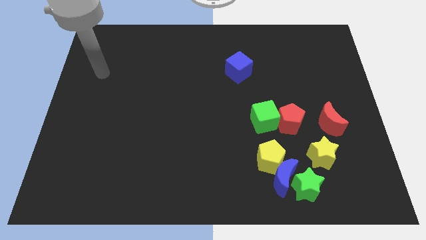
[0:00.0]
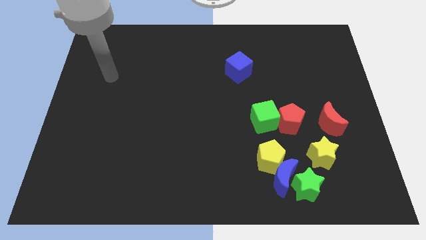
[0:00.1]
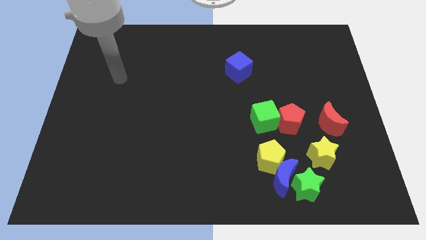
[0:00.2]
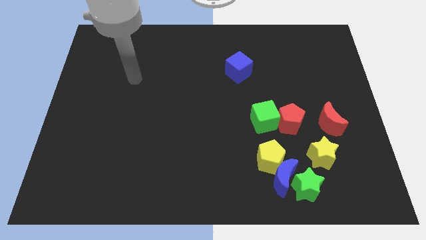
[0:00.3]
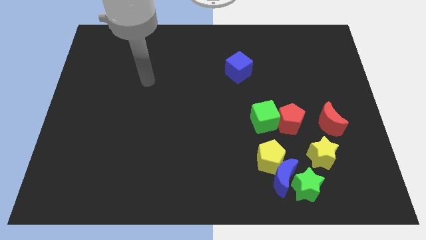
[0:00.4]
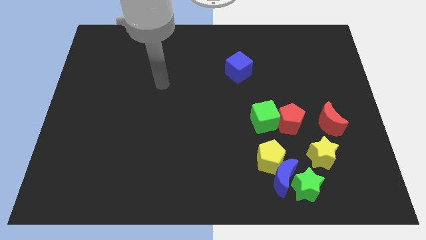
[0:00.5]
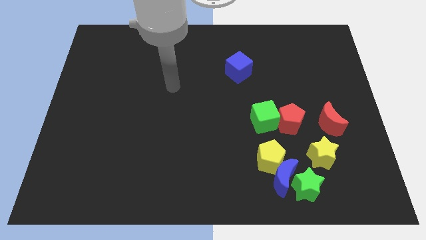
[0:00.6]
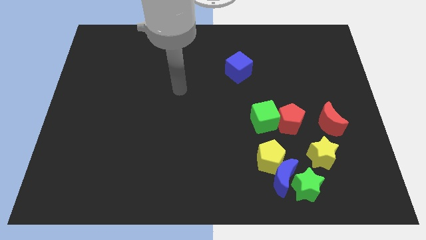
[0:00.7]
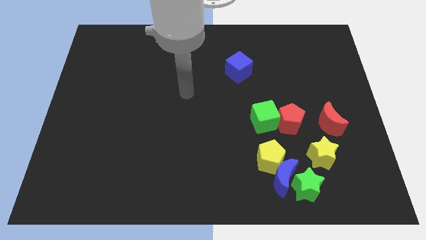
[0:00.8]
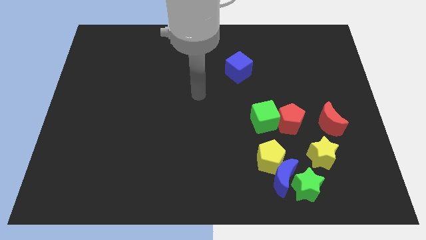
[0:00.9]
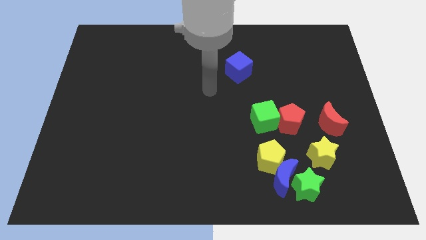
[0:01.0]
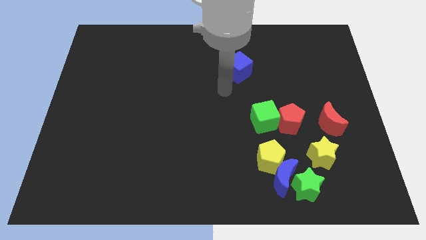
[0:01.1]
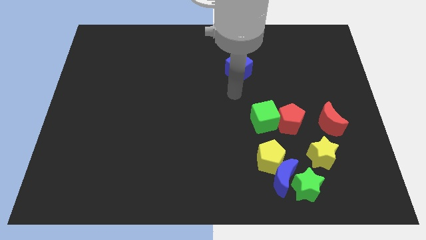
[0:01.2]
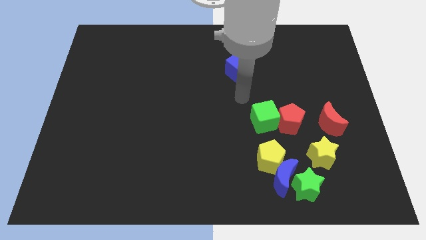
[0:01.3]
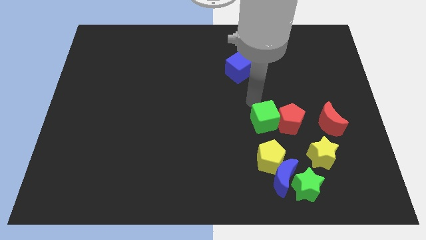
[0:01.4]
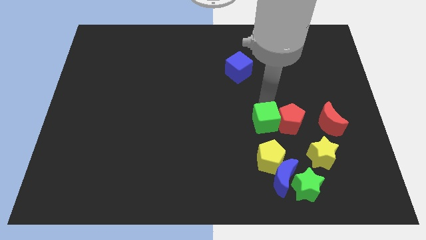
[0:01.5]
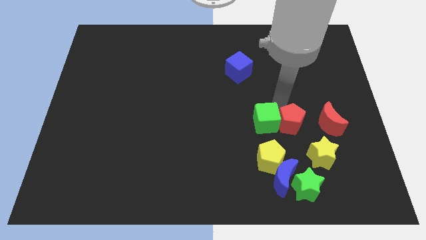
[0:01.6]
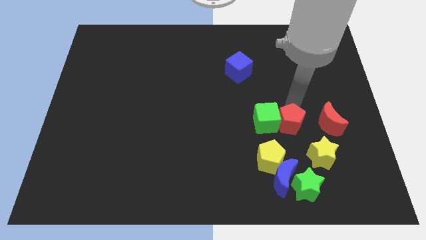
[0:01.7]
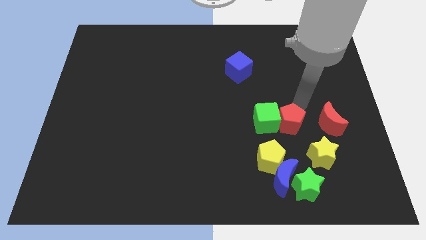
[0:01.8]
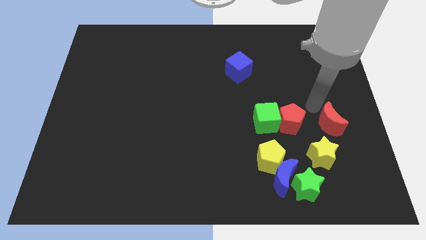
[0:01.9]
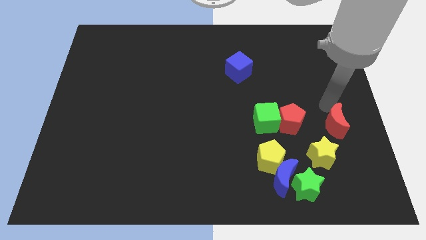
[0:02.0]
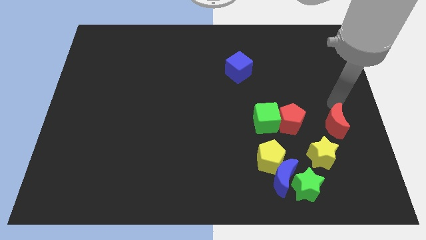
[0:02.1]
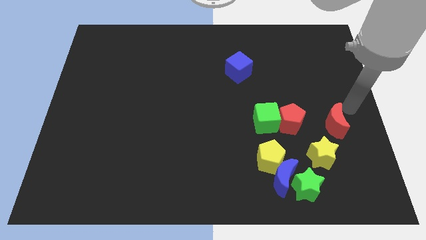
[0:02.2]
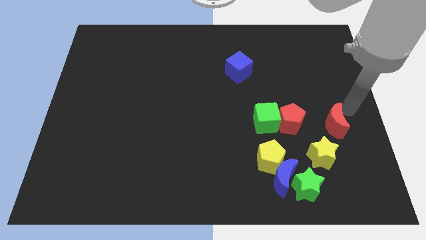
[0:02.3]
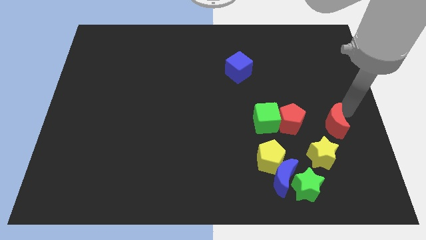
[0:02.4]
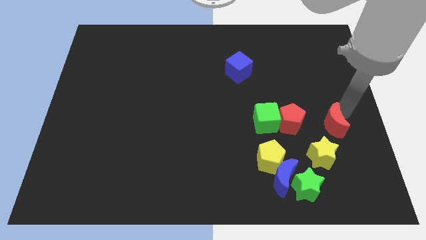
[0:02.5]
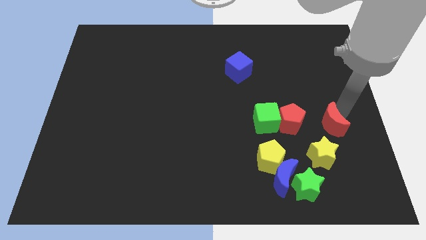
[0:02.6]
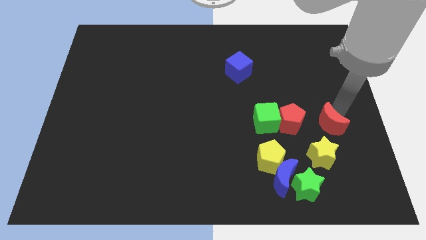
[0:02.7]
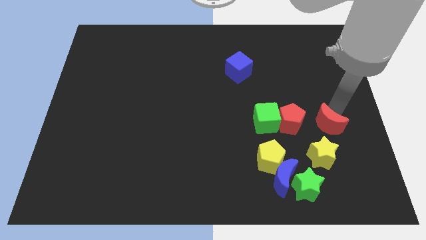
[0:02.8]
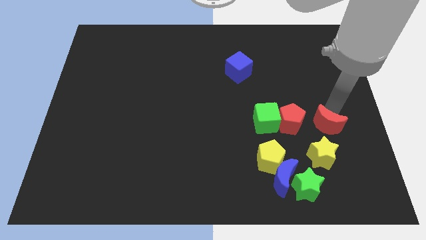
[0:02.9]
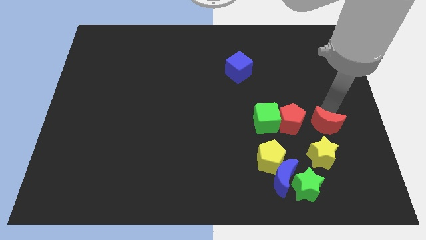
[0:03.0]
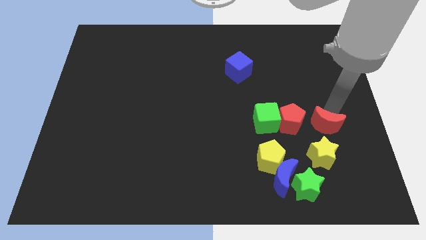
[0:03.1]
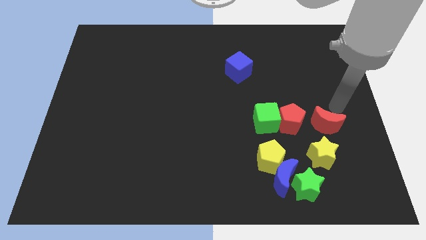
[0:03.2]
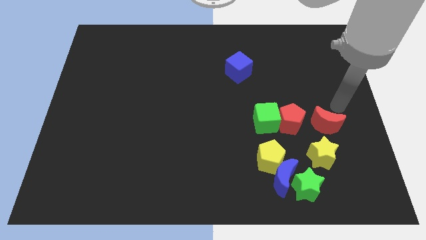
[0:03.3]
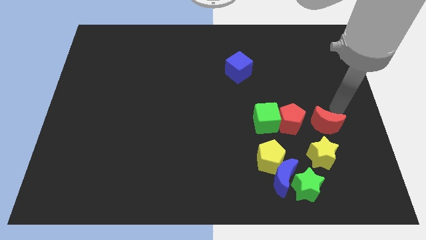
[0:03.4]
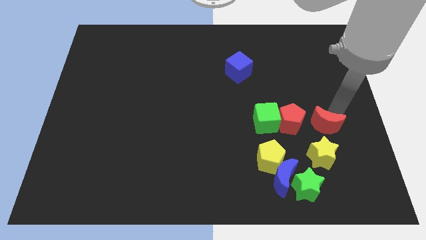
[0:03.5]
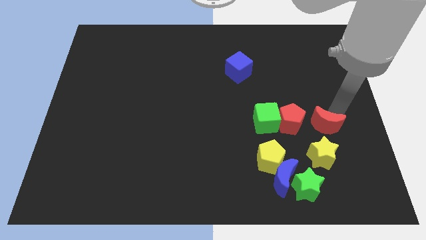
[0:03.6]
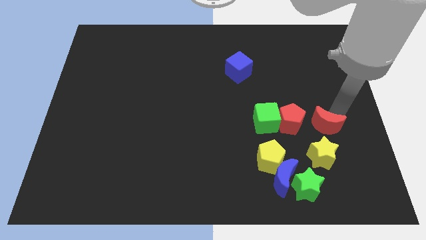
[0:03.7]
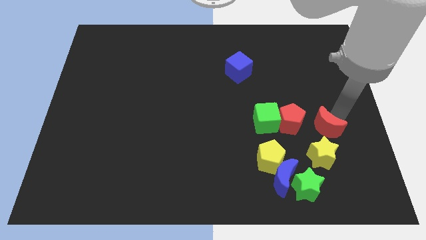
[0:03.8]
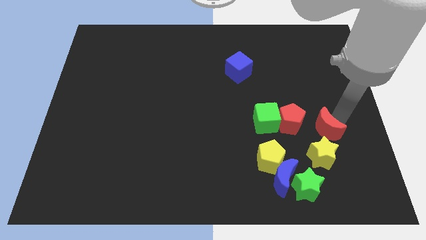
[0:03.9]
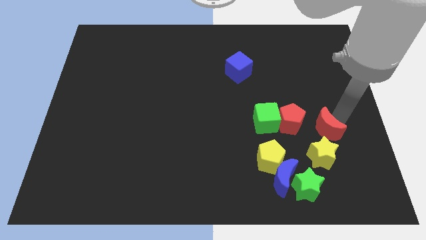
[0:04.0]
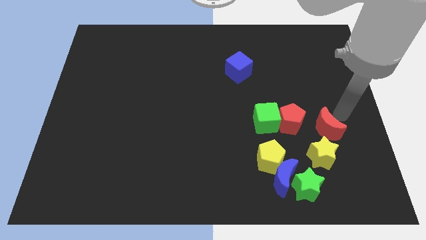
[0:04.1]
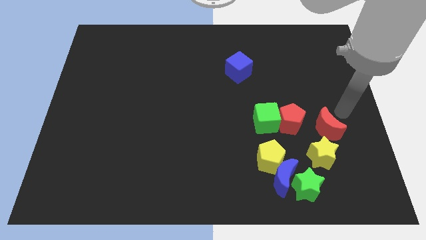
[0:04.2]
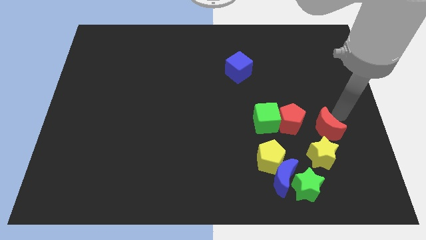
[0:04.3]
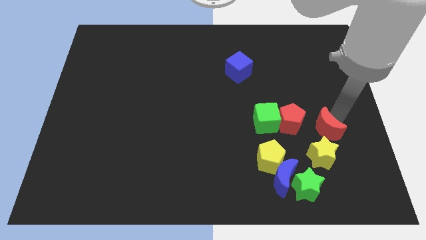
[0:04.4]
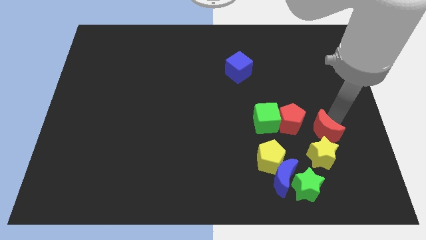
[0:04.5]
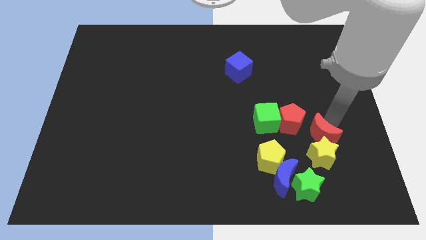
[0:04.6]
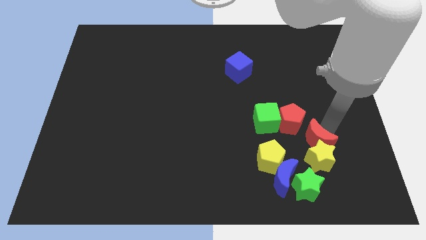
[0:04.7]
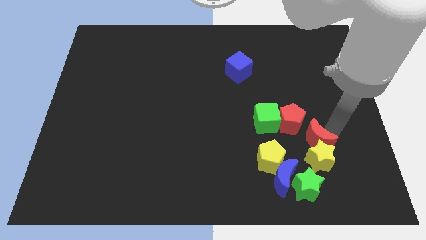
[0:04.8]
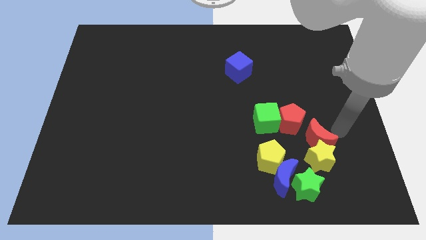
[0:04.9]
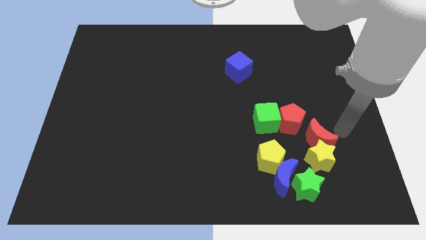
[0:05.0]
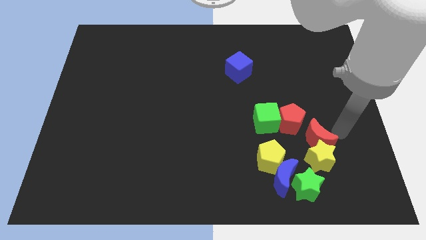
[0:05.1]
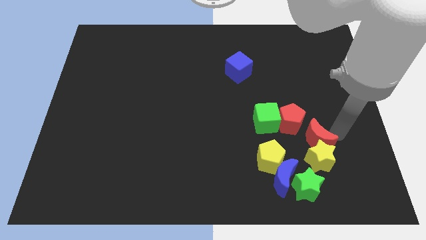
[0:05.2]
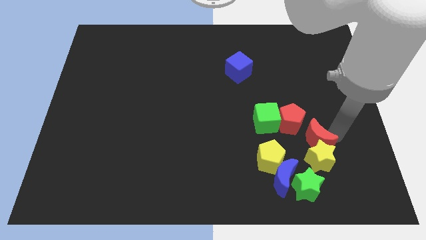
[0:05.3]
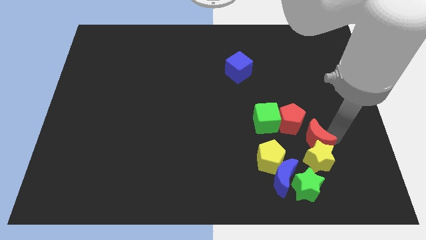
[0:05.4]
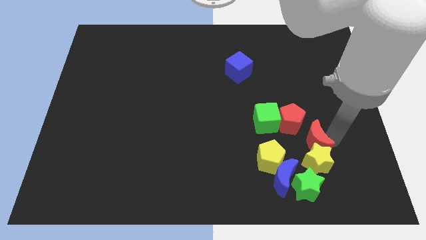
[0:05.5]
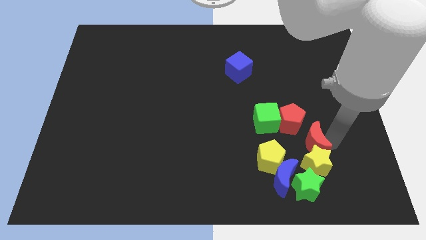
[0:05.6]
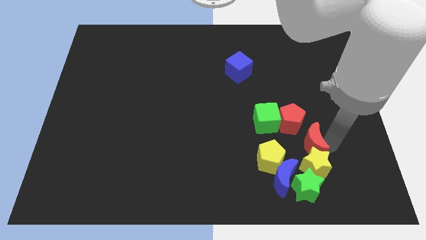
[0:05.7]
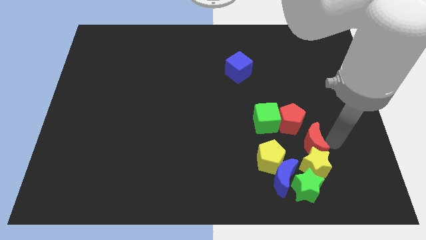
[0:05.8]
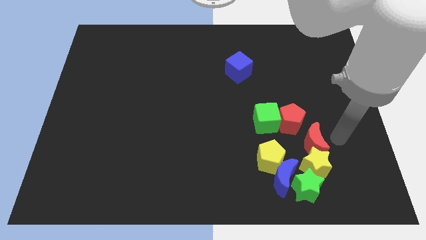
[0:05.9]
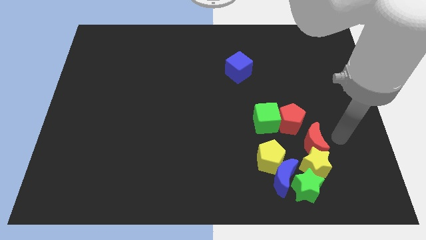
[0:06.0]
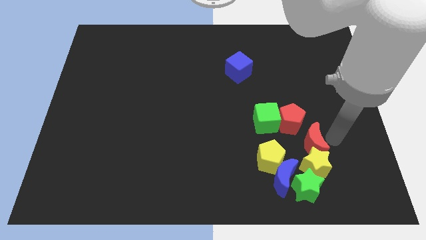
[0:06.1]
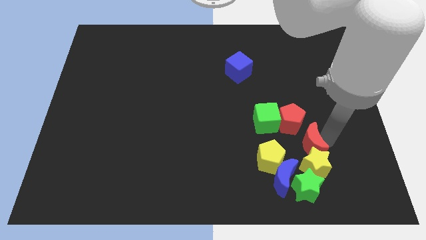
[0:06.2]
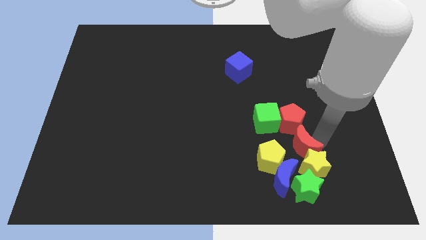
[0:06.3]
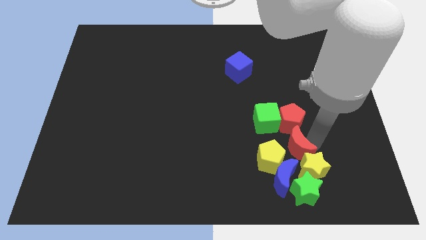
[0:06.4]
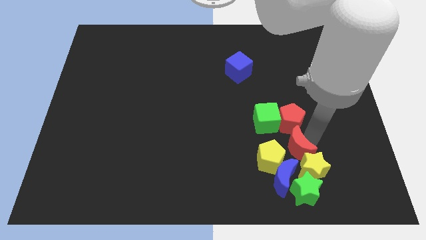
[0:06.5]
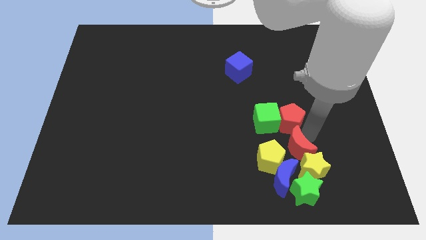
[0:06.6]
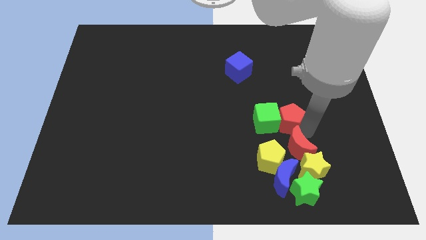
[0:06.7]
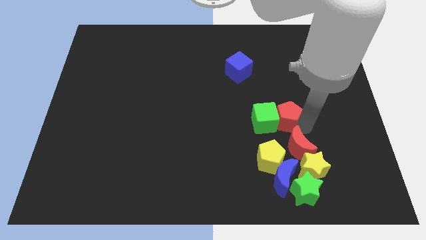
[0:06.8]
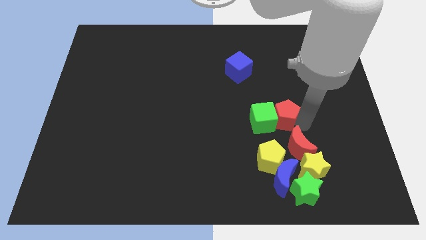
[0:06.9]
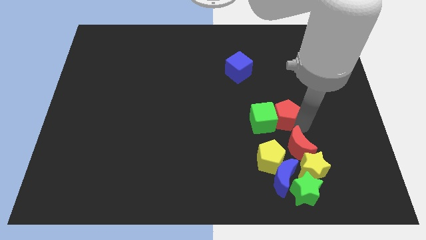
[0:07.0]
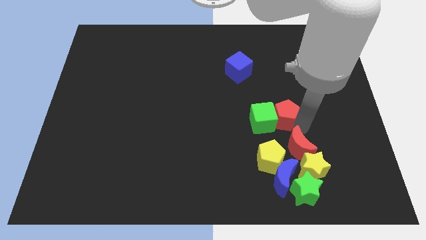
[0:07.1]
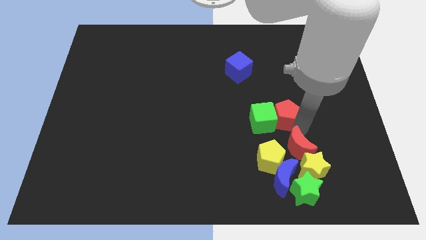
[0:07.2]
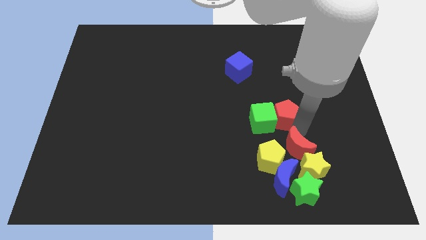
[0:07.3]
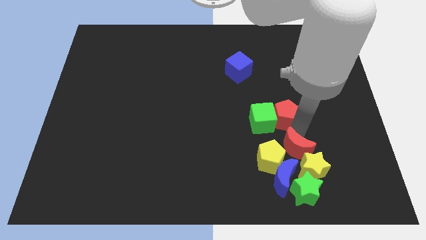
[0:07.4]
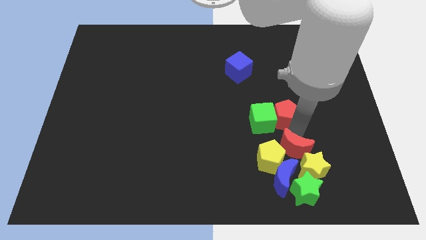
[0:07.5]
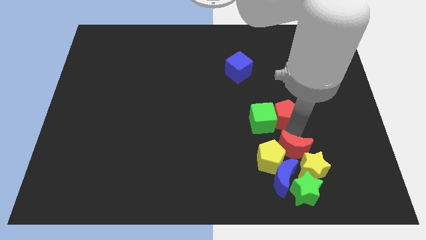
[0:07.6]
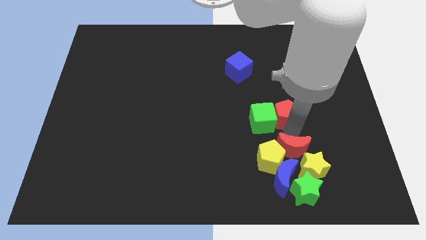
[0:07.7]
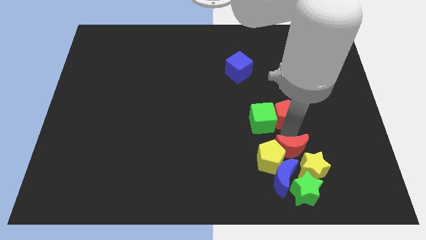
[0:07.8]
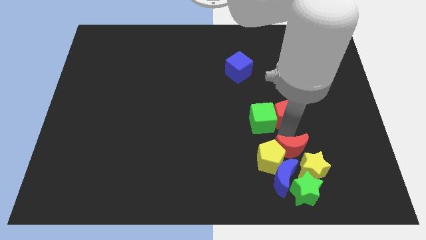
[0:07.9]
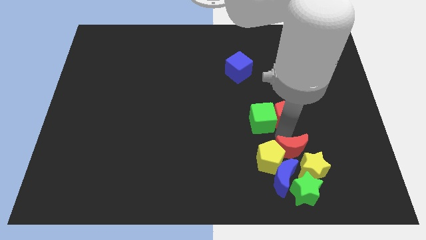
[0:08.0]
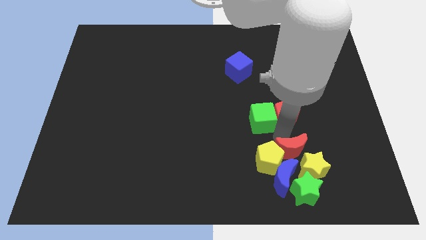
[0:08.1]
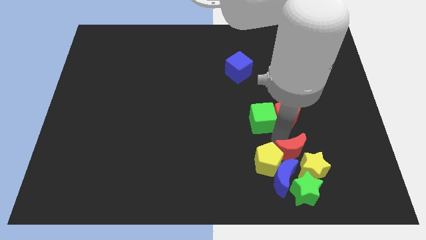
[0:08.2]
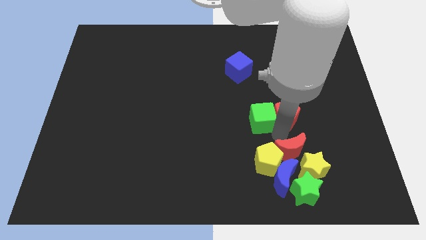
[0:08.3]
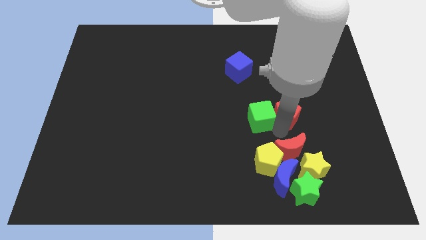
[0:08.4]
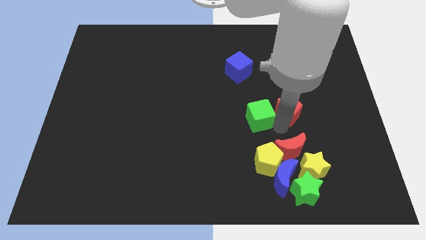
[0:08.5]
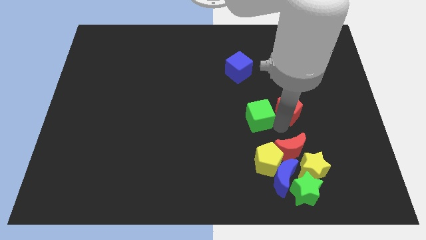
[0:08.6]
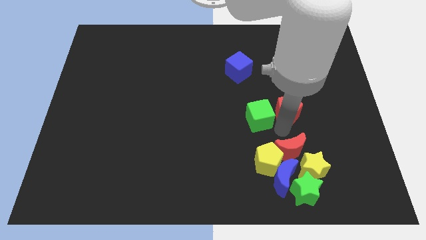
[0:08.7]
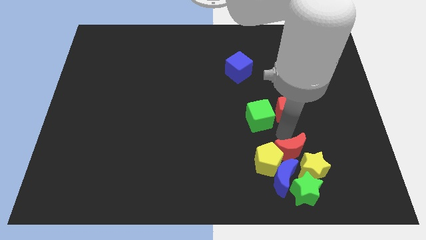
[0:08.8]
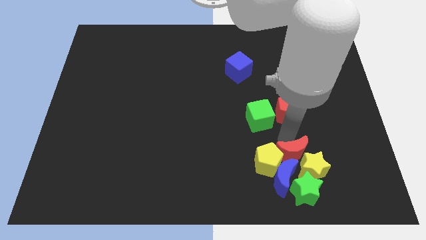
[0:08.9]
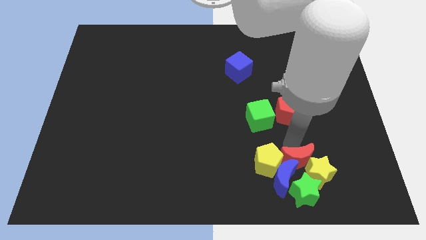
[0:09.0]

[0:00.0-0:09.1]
move the red moon towards the blue moon
